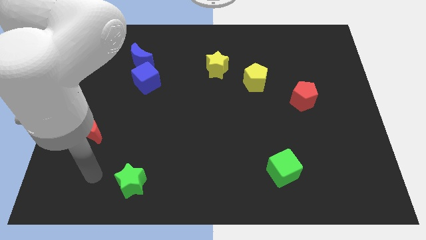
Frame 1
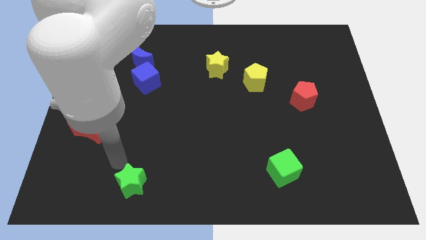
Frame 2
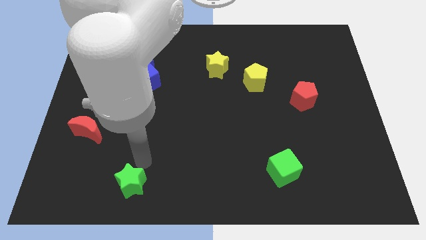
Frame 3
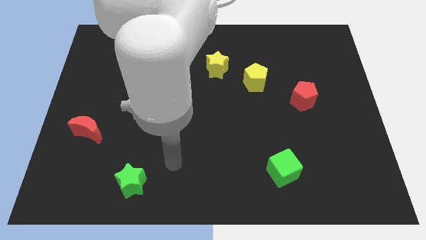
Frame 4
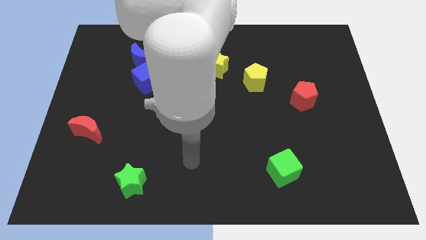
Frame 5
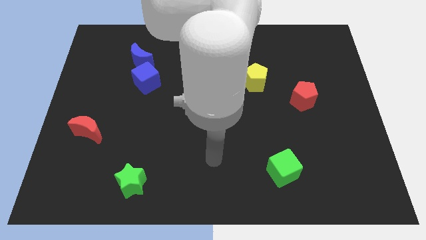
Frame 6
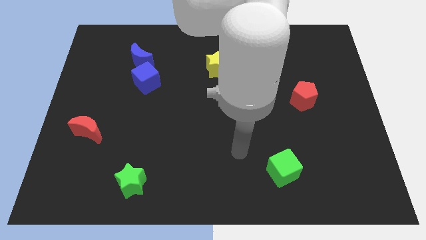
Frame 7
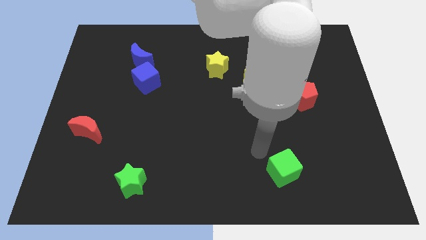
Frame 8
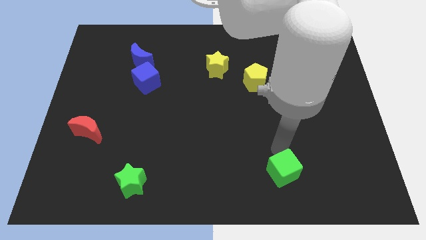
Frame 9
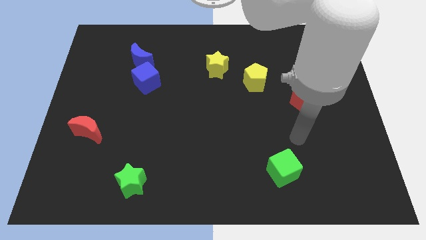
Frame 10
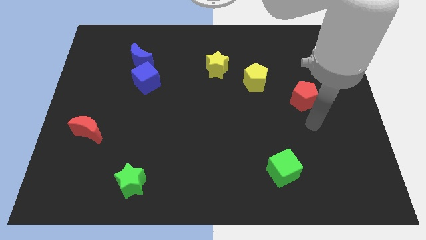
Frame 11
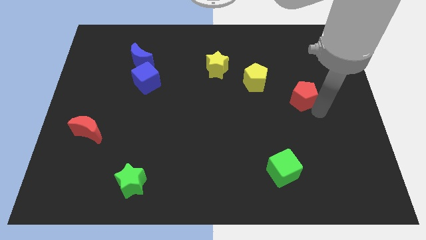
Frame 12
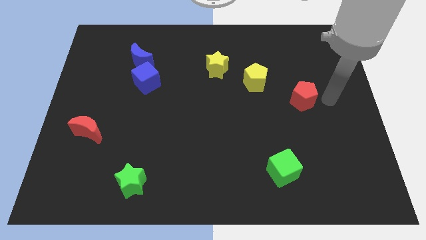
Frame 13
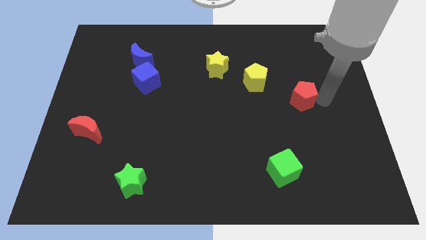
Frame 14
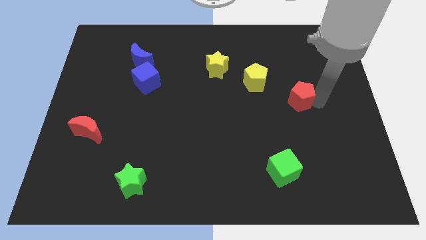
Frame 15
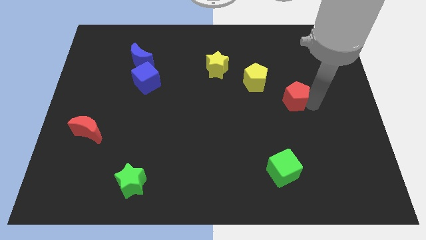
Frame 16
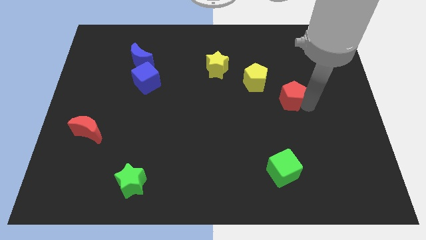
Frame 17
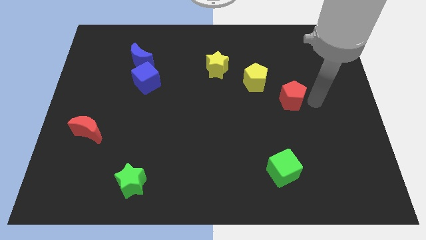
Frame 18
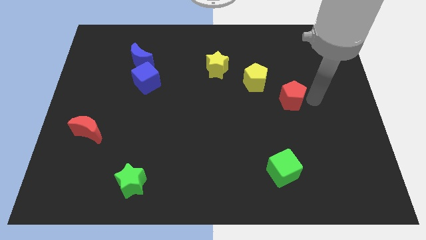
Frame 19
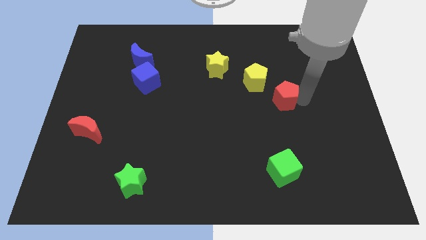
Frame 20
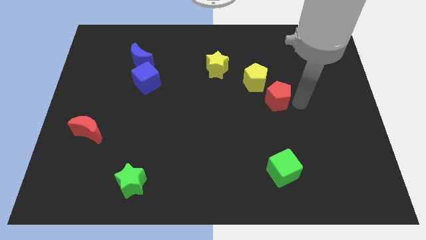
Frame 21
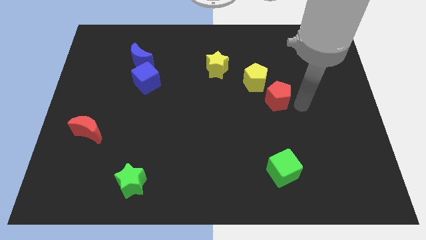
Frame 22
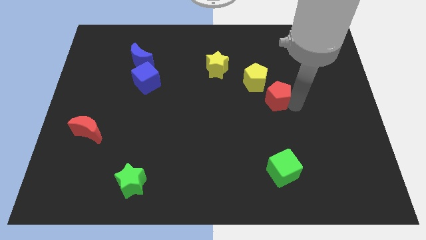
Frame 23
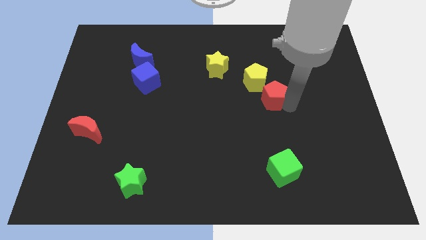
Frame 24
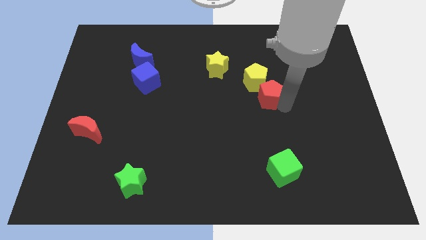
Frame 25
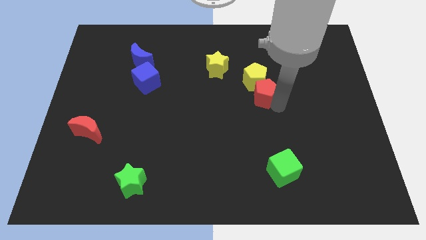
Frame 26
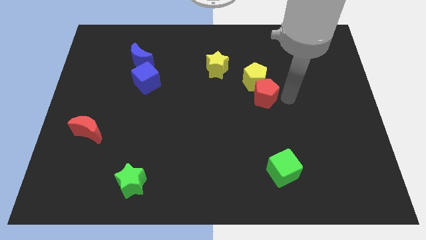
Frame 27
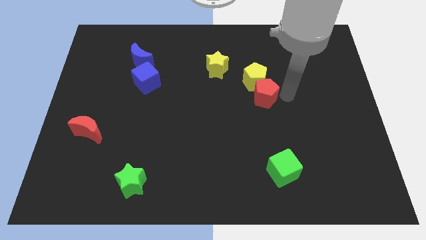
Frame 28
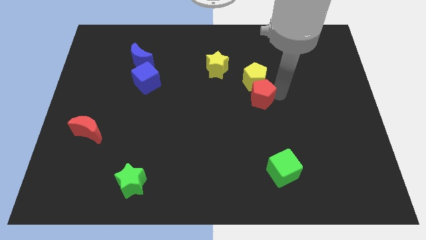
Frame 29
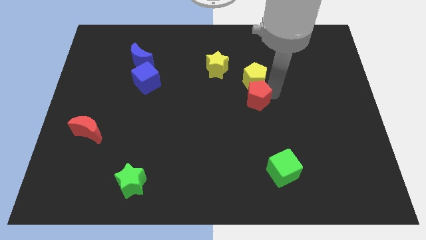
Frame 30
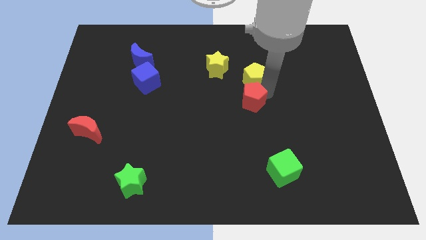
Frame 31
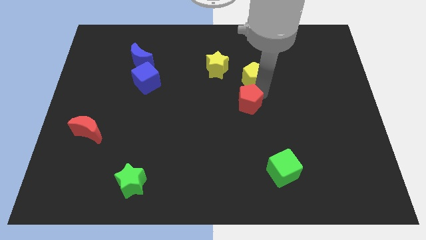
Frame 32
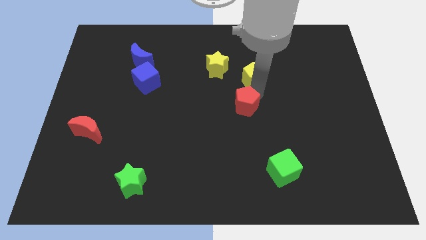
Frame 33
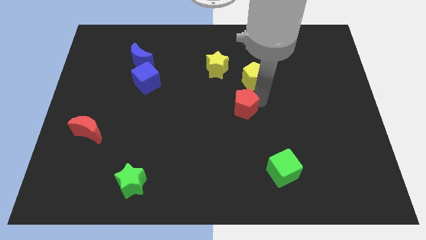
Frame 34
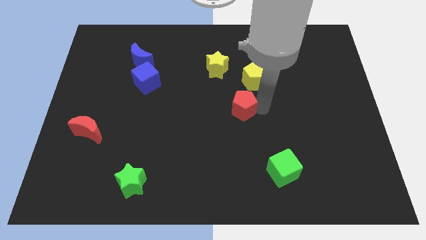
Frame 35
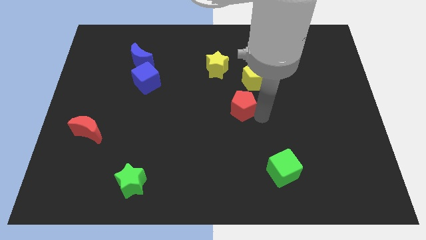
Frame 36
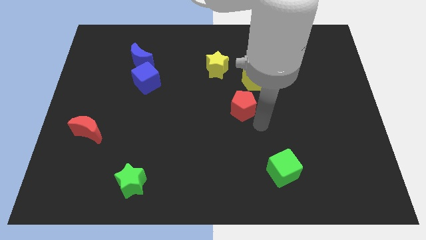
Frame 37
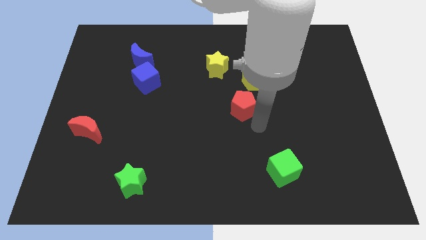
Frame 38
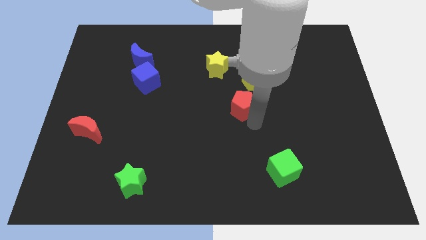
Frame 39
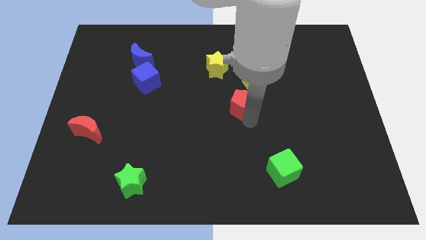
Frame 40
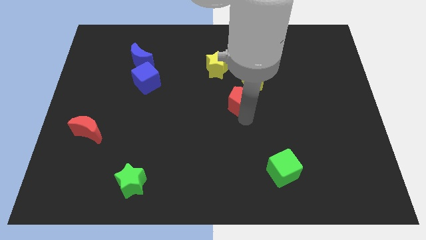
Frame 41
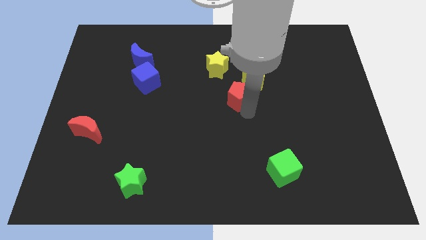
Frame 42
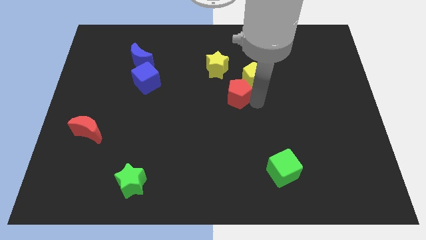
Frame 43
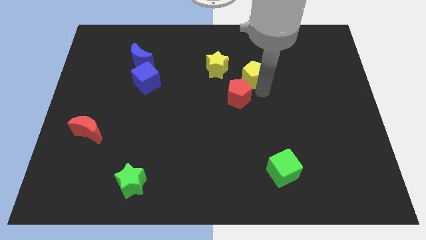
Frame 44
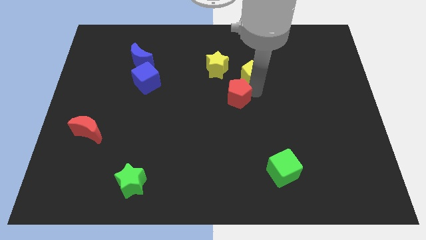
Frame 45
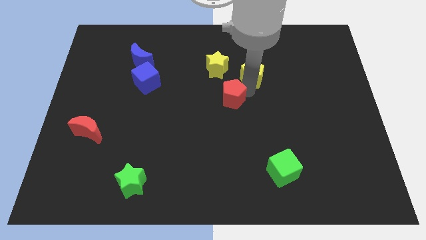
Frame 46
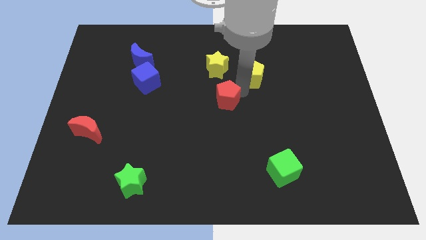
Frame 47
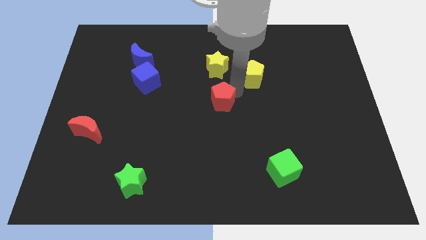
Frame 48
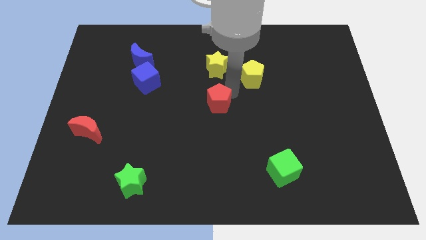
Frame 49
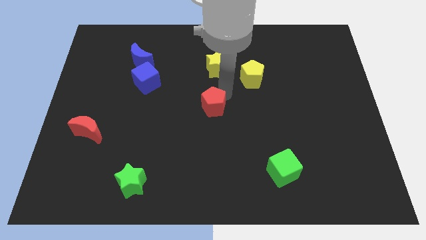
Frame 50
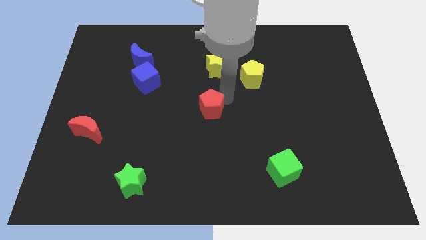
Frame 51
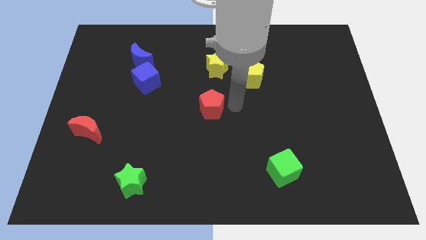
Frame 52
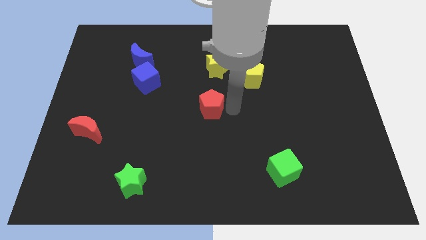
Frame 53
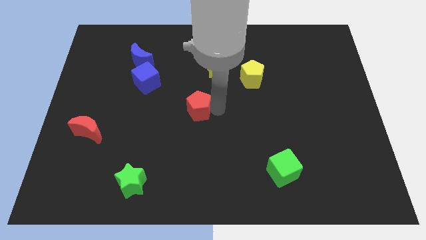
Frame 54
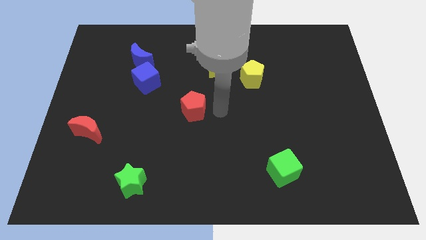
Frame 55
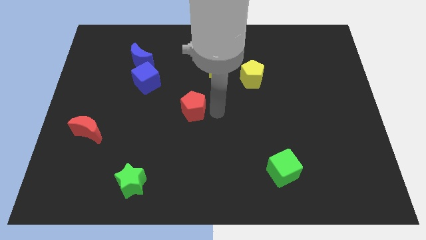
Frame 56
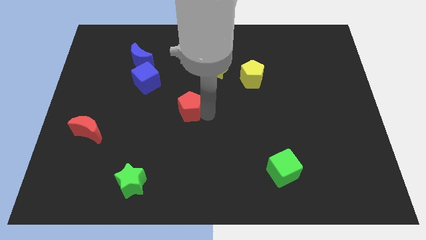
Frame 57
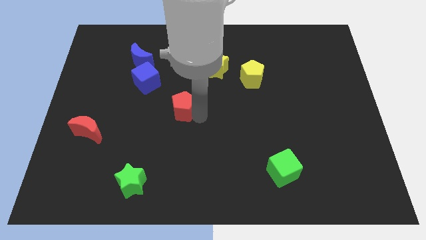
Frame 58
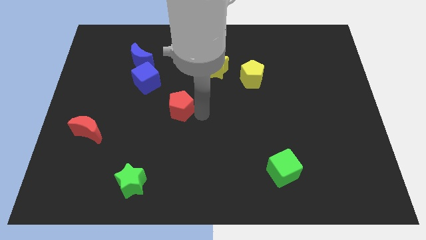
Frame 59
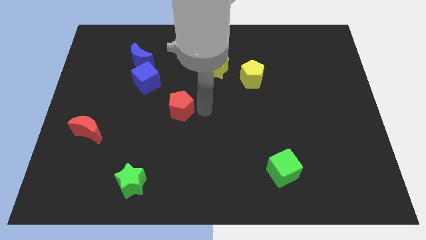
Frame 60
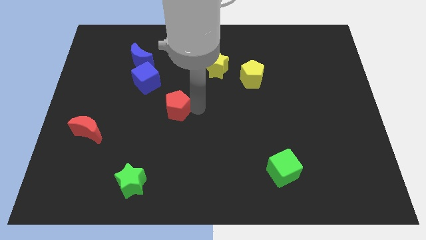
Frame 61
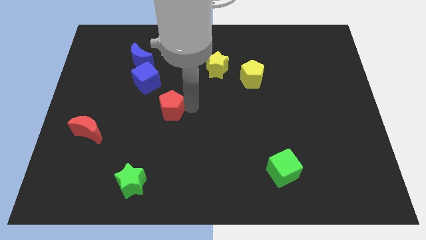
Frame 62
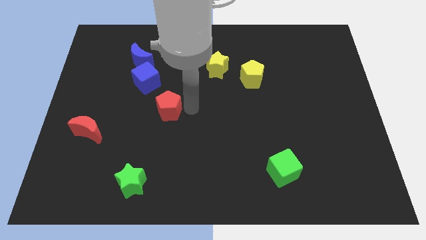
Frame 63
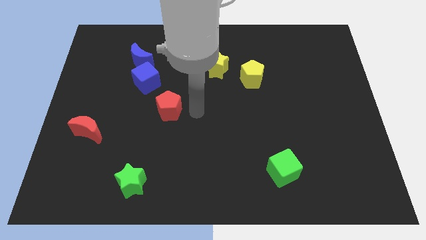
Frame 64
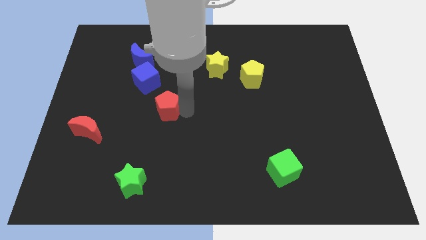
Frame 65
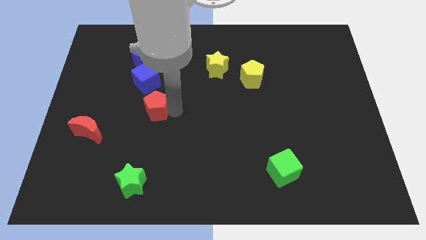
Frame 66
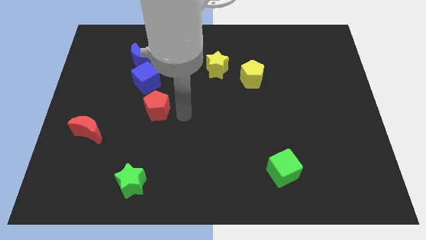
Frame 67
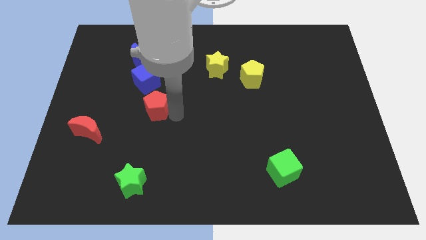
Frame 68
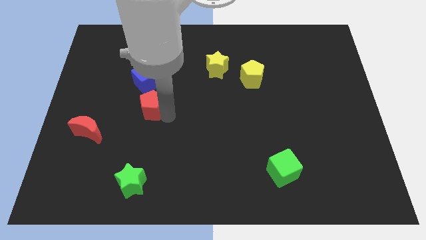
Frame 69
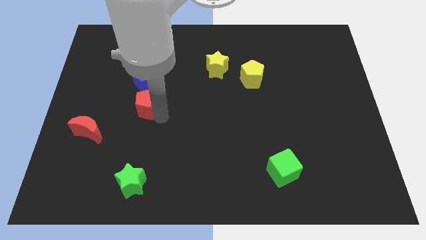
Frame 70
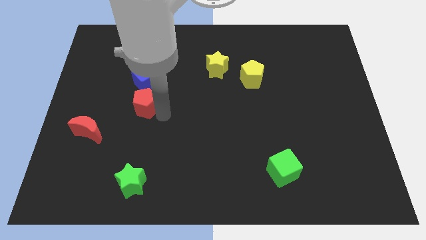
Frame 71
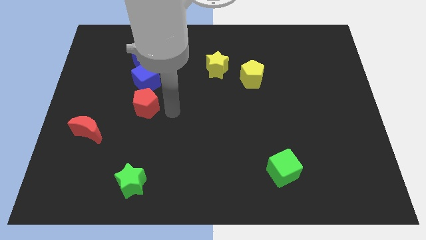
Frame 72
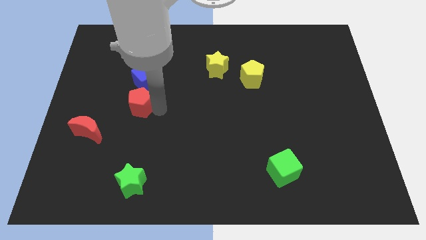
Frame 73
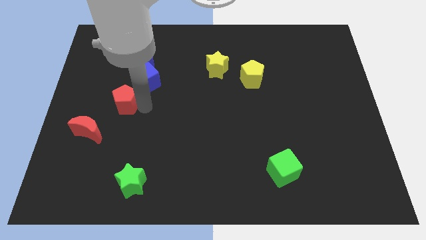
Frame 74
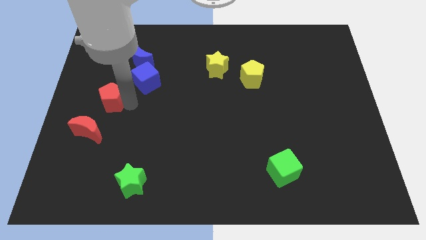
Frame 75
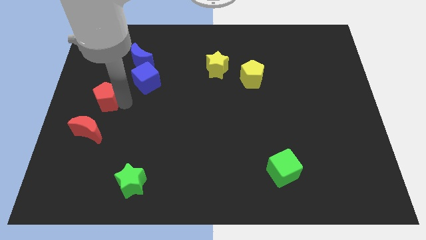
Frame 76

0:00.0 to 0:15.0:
slide the red pentagon to the left side
